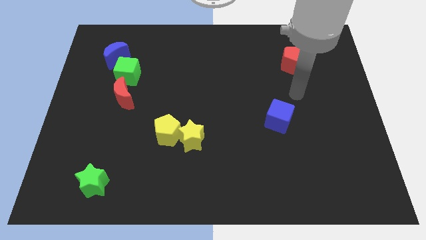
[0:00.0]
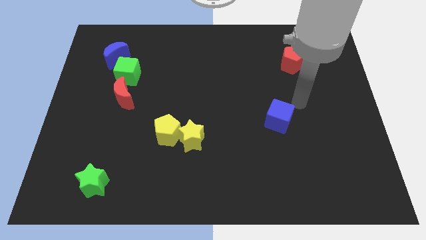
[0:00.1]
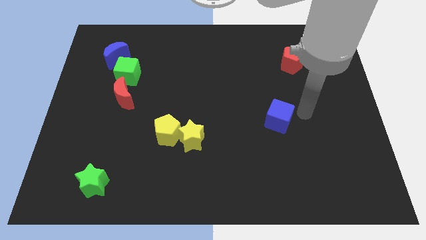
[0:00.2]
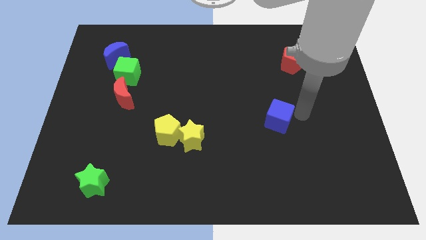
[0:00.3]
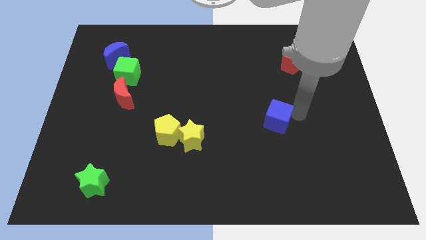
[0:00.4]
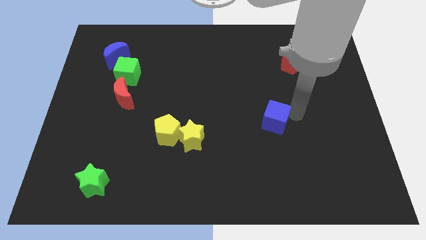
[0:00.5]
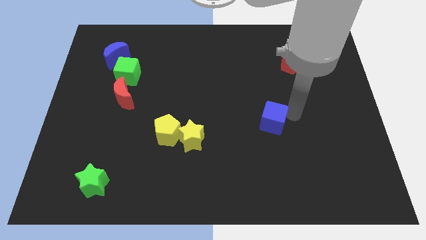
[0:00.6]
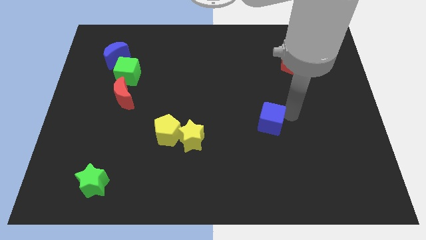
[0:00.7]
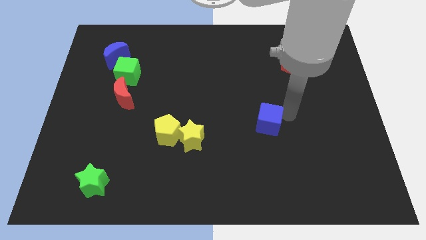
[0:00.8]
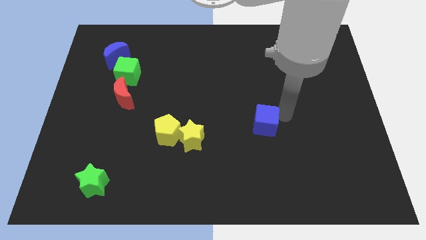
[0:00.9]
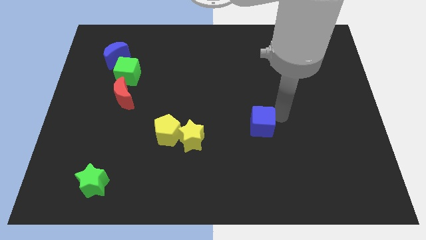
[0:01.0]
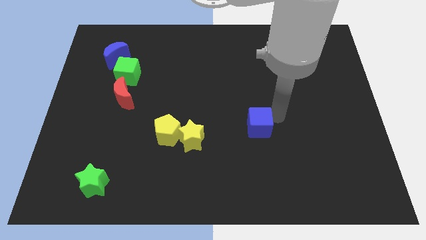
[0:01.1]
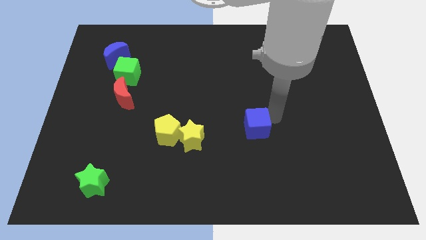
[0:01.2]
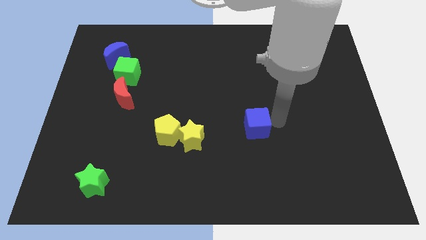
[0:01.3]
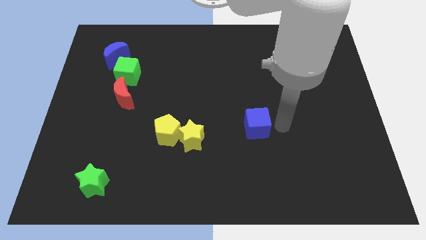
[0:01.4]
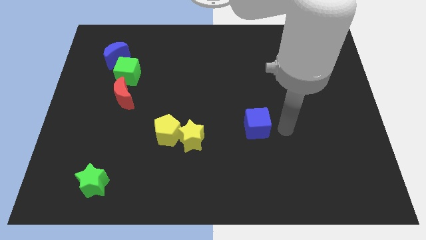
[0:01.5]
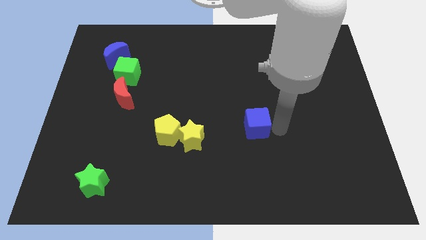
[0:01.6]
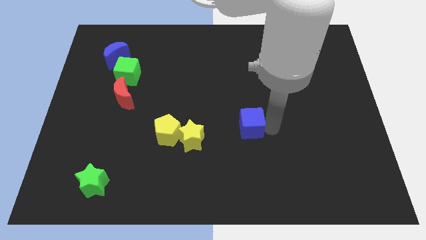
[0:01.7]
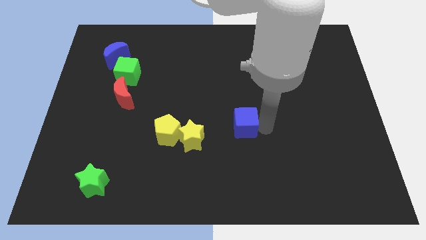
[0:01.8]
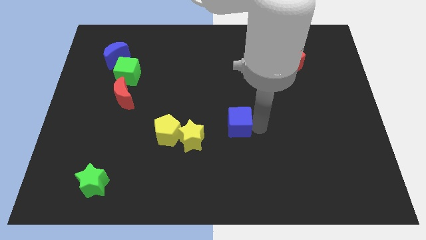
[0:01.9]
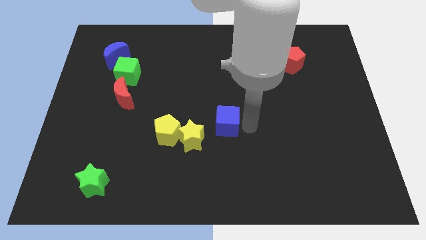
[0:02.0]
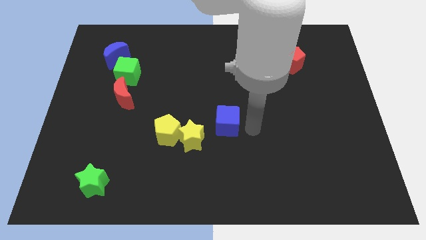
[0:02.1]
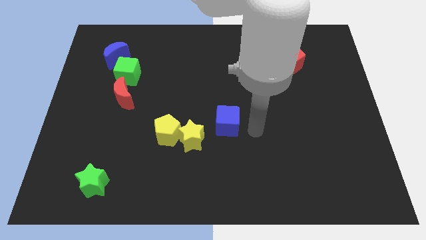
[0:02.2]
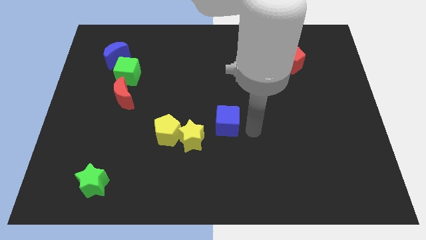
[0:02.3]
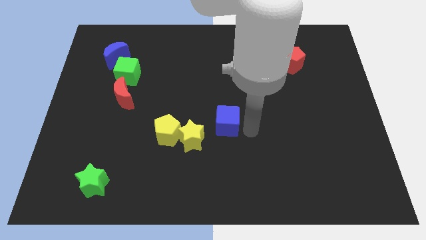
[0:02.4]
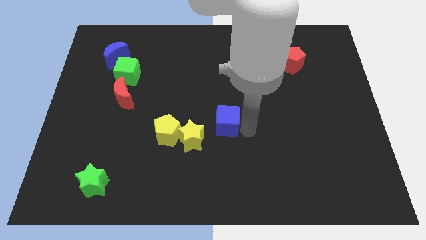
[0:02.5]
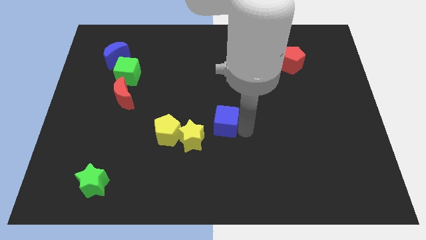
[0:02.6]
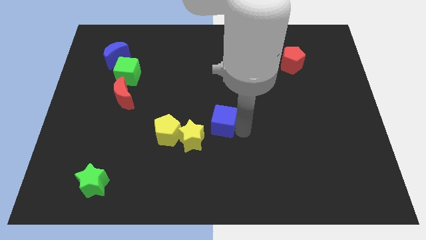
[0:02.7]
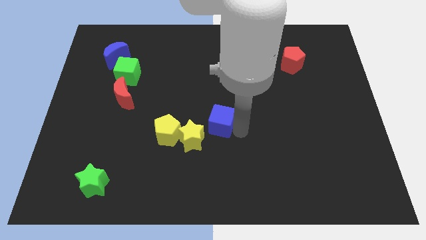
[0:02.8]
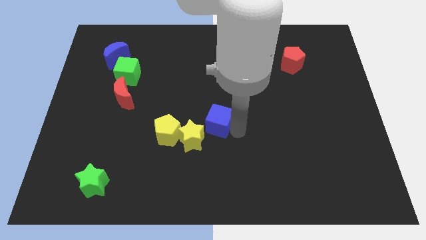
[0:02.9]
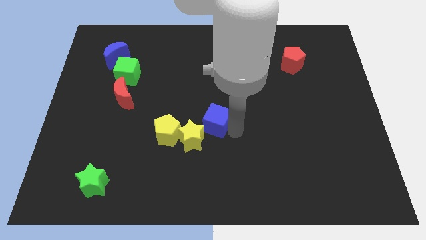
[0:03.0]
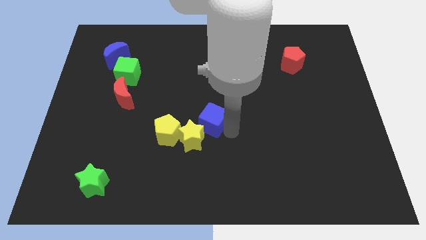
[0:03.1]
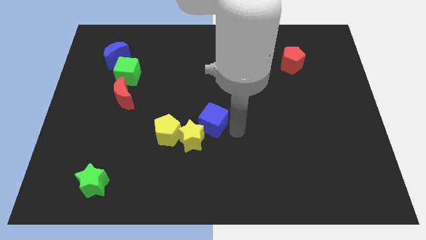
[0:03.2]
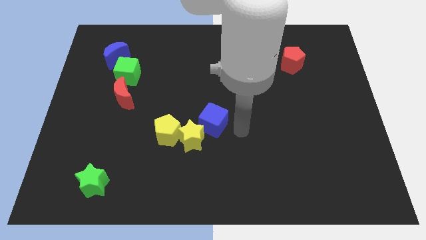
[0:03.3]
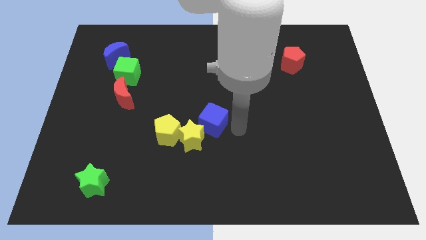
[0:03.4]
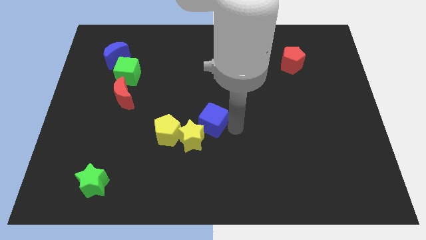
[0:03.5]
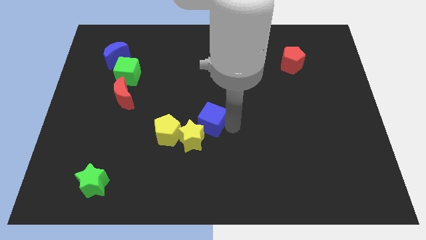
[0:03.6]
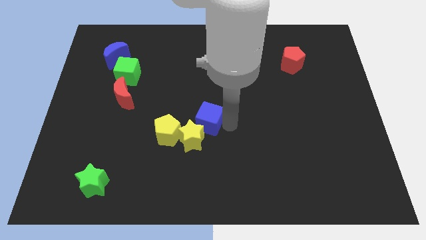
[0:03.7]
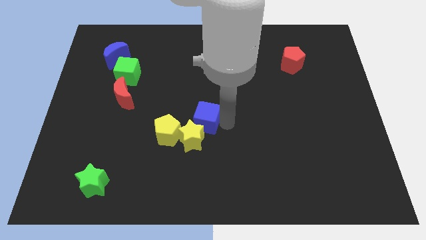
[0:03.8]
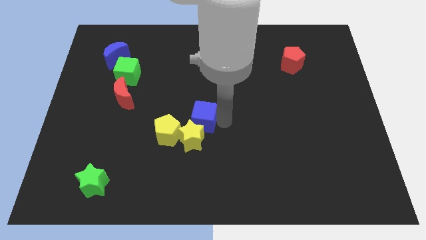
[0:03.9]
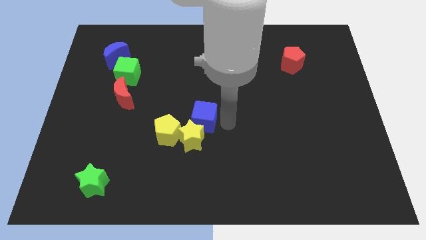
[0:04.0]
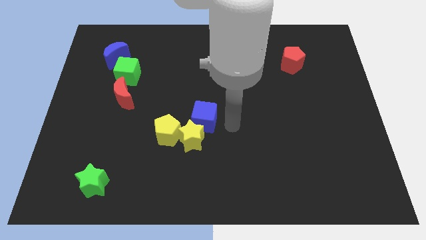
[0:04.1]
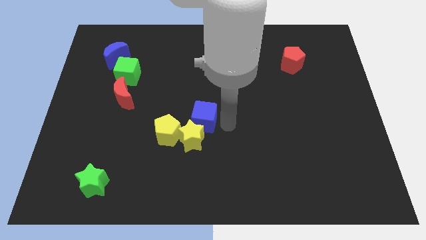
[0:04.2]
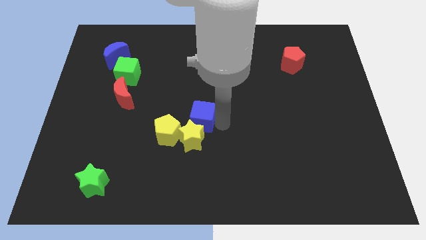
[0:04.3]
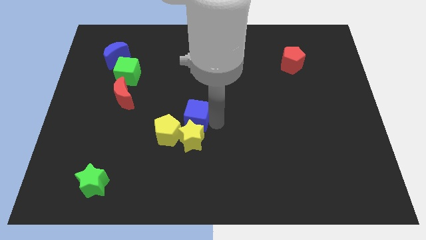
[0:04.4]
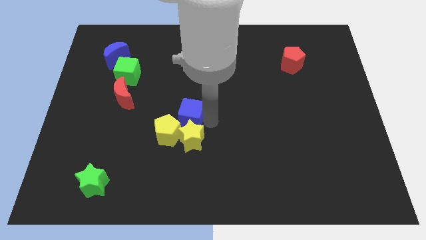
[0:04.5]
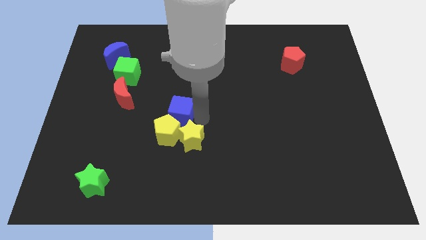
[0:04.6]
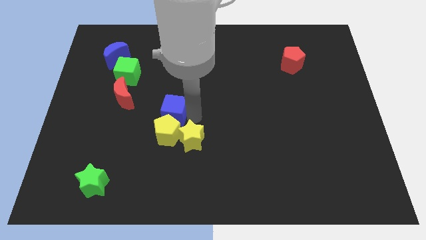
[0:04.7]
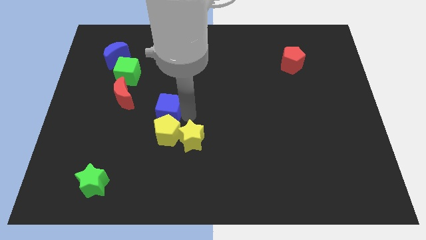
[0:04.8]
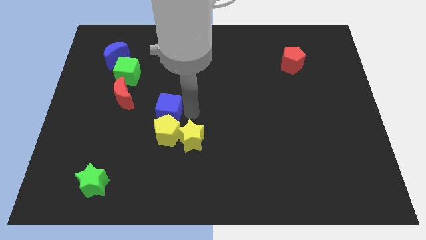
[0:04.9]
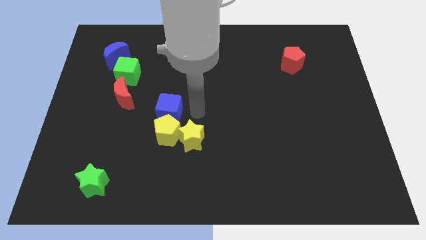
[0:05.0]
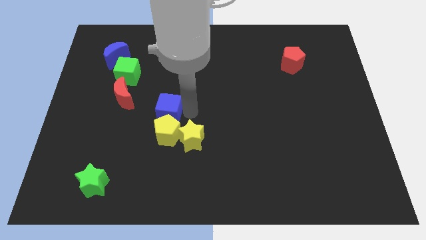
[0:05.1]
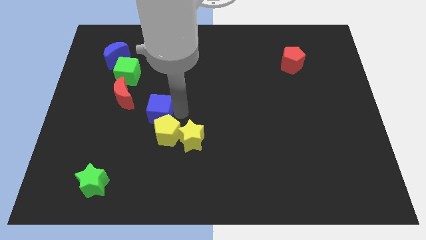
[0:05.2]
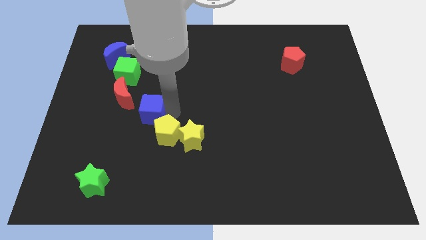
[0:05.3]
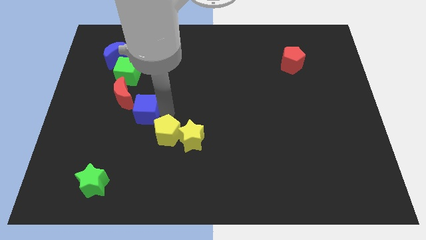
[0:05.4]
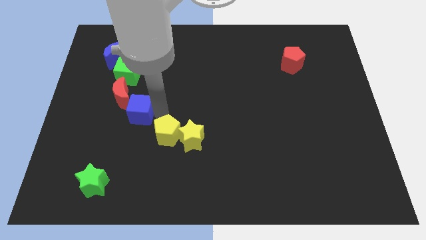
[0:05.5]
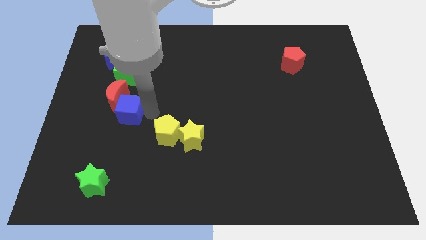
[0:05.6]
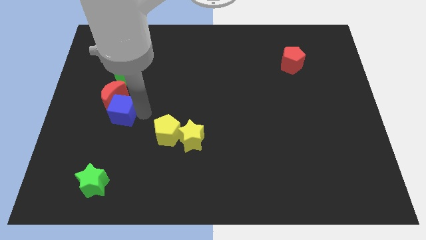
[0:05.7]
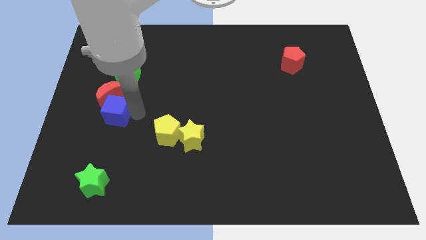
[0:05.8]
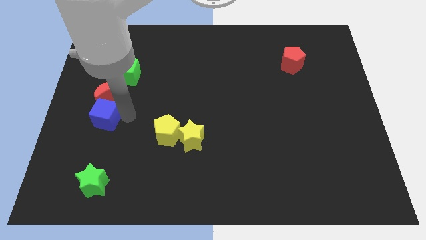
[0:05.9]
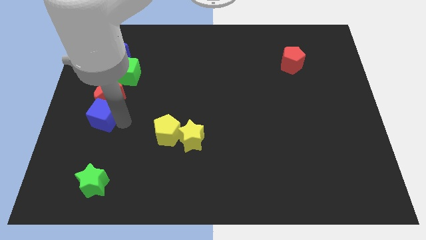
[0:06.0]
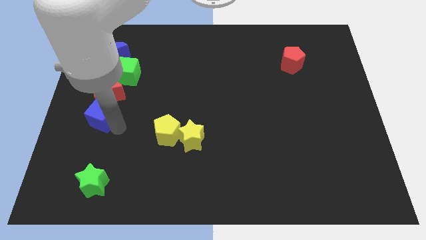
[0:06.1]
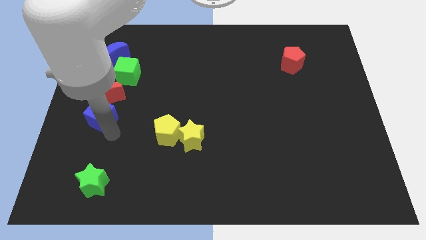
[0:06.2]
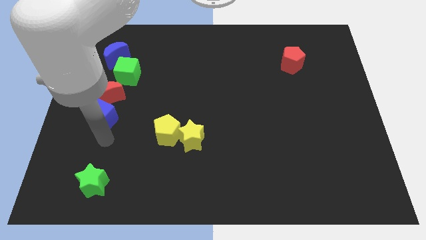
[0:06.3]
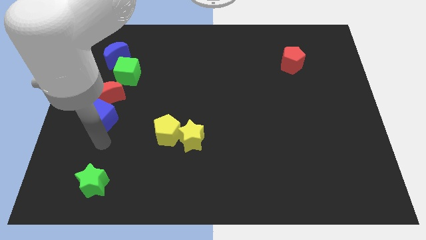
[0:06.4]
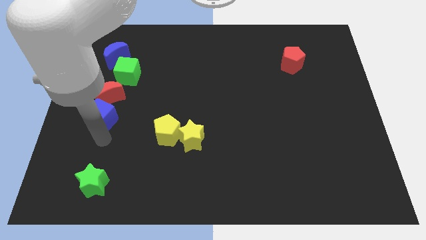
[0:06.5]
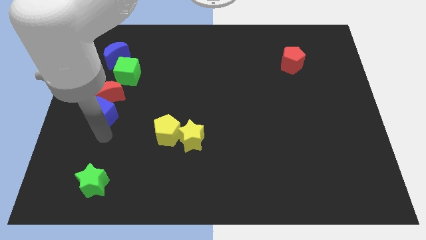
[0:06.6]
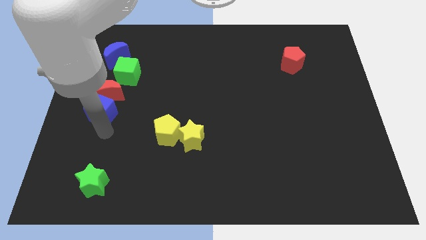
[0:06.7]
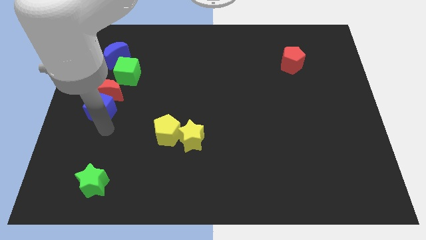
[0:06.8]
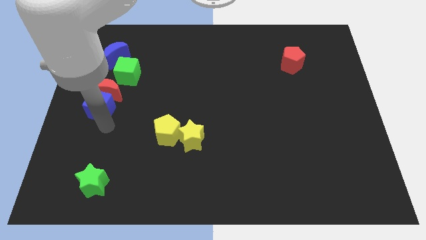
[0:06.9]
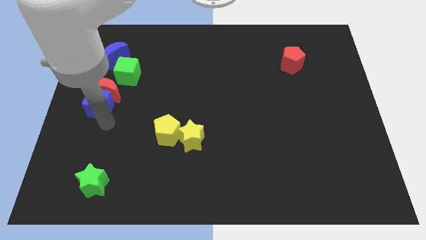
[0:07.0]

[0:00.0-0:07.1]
push the blue cube diagonally down and to the left of the green cube
